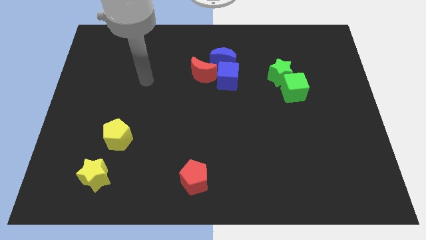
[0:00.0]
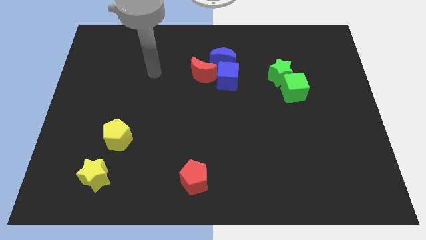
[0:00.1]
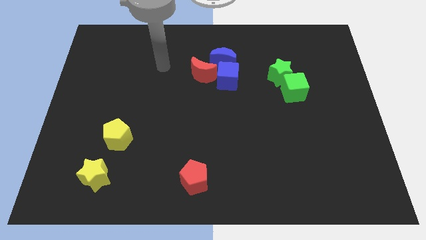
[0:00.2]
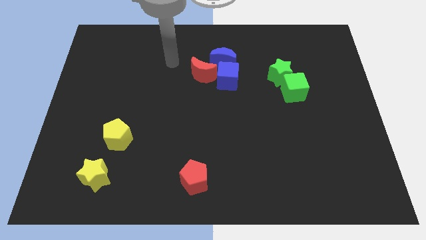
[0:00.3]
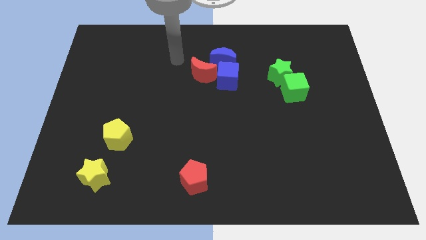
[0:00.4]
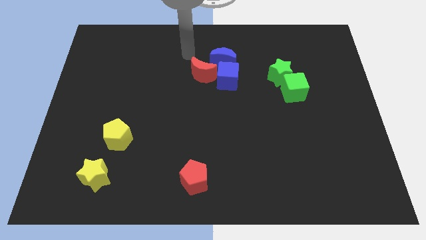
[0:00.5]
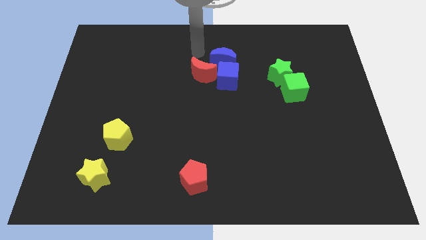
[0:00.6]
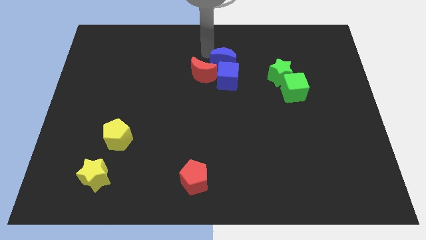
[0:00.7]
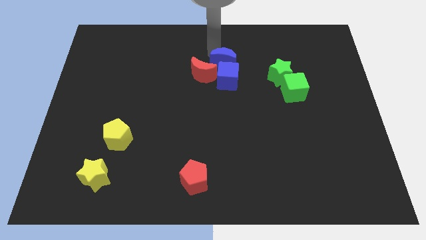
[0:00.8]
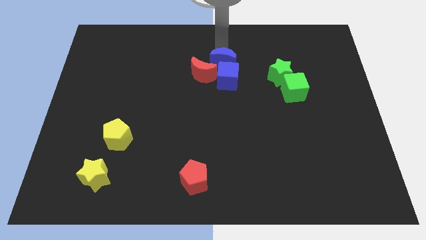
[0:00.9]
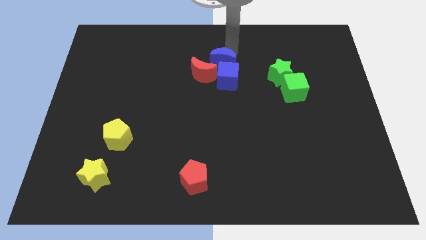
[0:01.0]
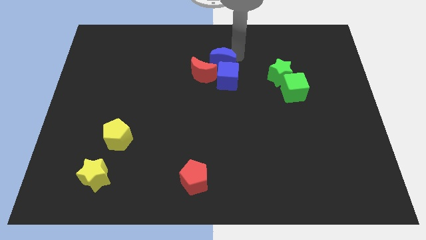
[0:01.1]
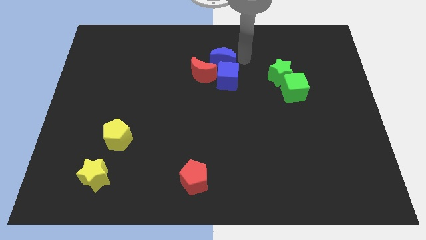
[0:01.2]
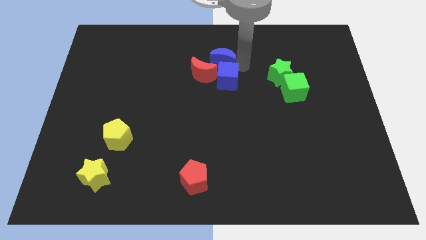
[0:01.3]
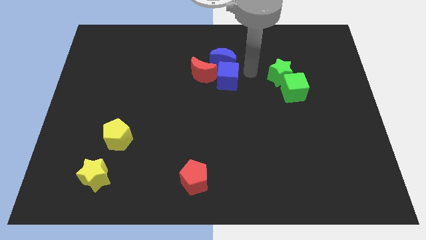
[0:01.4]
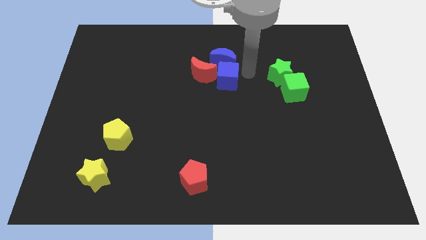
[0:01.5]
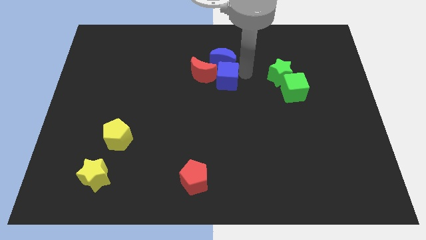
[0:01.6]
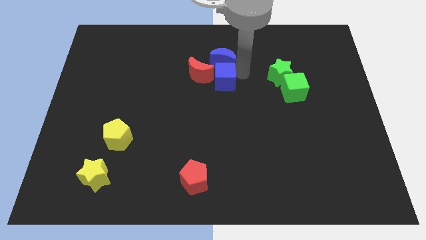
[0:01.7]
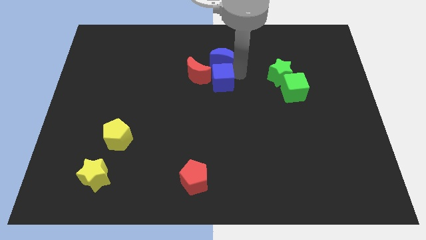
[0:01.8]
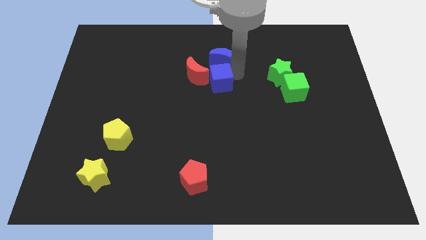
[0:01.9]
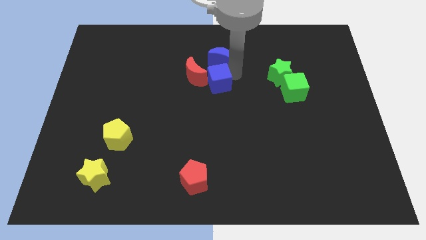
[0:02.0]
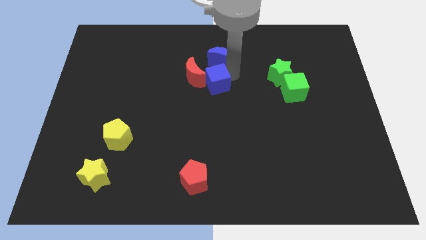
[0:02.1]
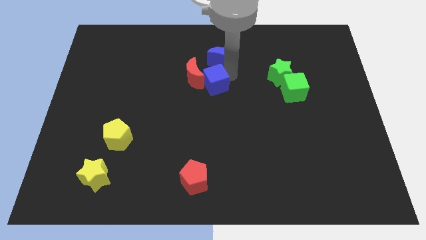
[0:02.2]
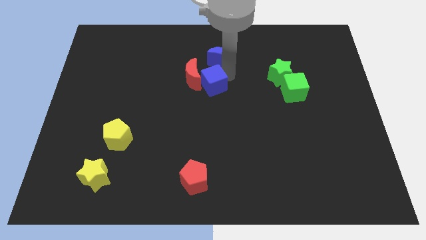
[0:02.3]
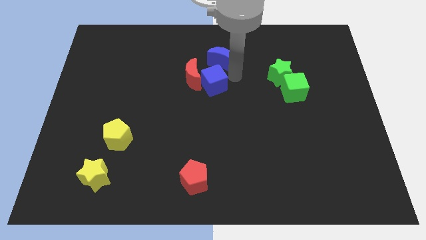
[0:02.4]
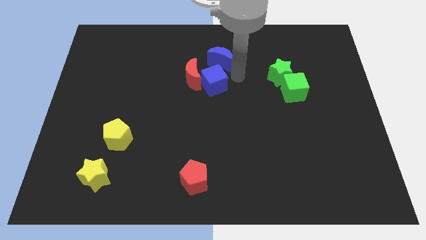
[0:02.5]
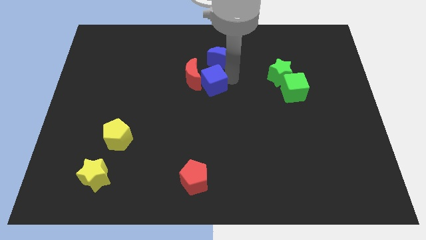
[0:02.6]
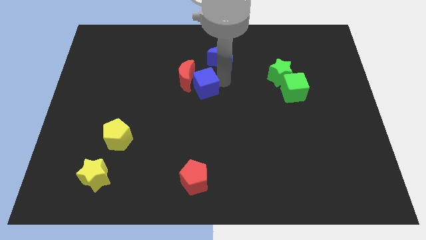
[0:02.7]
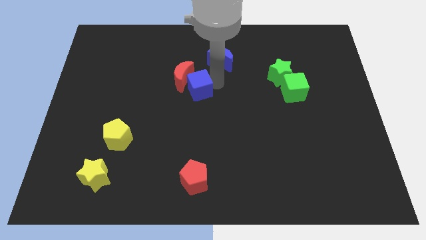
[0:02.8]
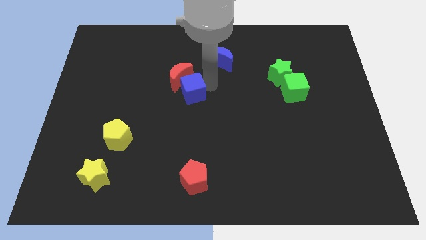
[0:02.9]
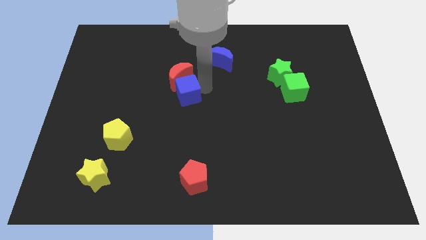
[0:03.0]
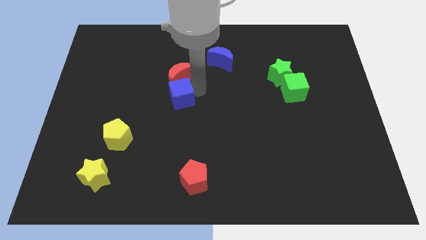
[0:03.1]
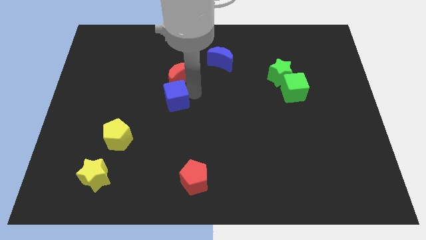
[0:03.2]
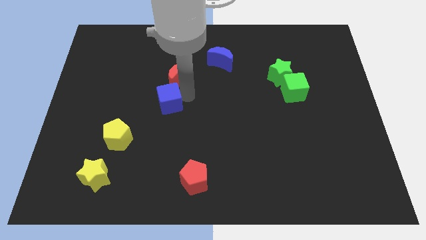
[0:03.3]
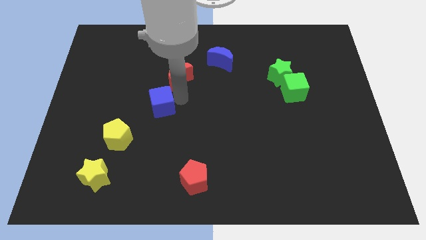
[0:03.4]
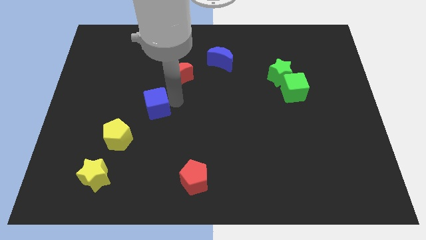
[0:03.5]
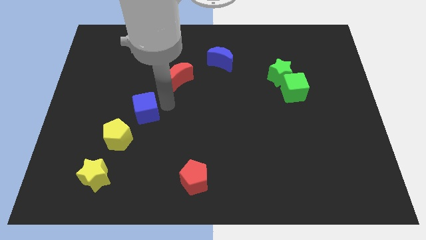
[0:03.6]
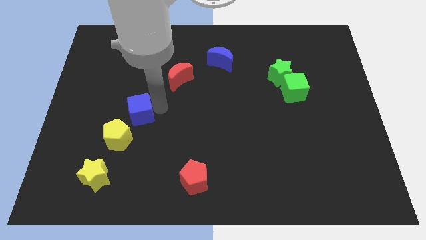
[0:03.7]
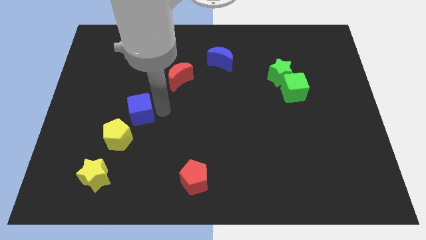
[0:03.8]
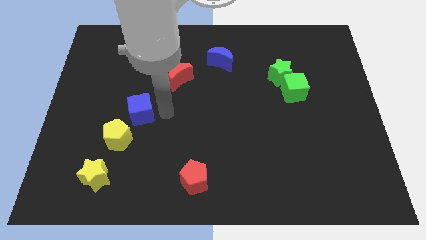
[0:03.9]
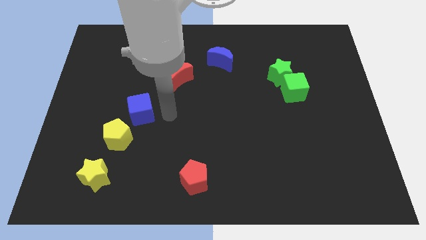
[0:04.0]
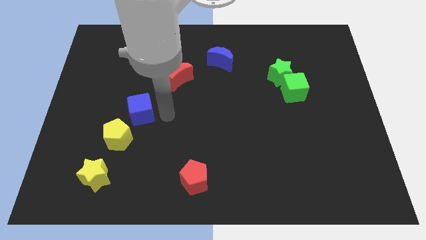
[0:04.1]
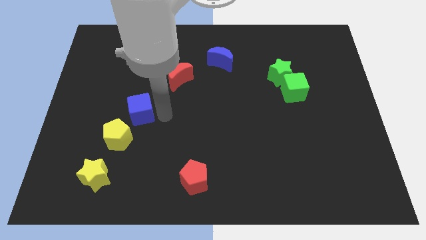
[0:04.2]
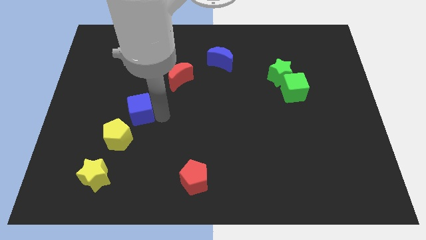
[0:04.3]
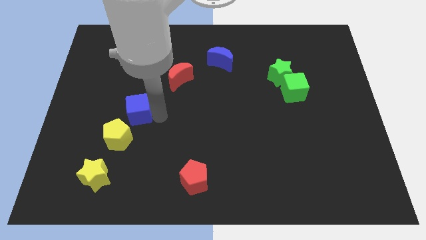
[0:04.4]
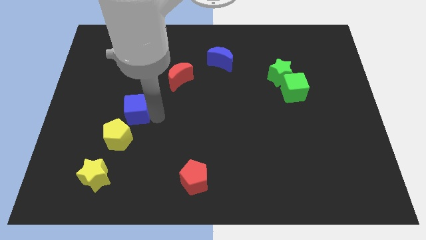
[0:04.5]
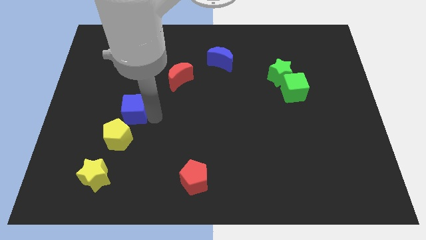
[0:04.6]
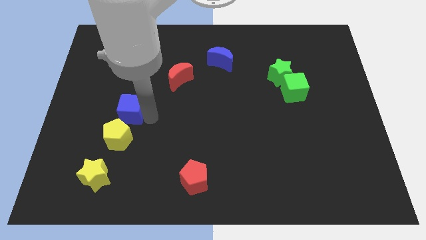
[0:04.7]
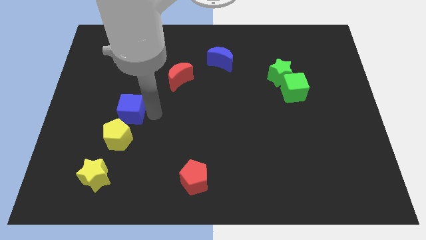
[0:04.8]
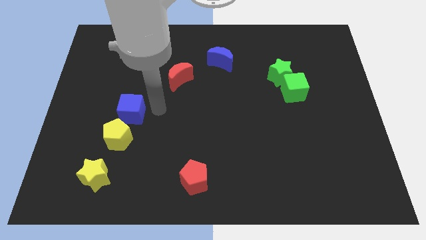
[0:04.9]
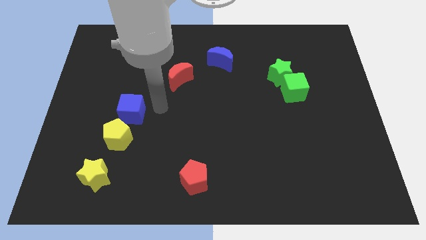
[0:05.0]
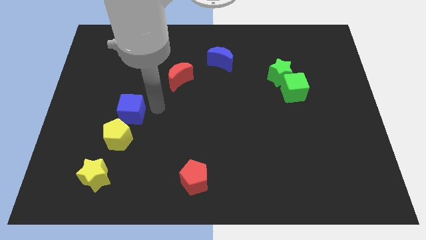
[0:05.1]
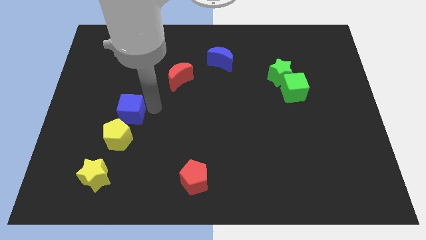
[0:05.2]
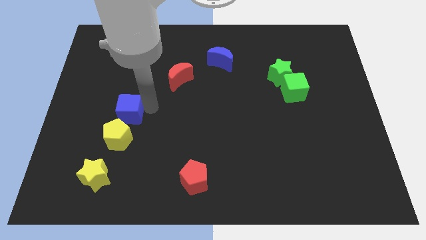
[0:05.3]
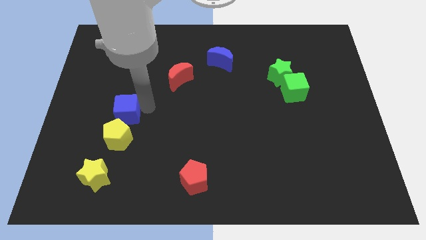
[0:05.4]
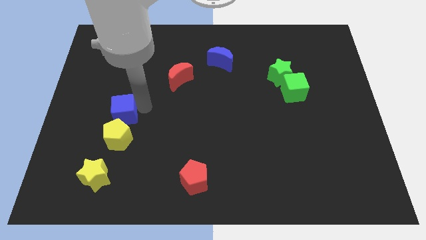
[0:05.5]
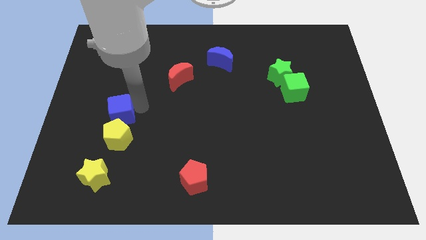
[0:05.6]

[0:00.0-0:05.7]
put the blue cube to the top left side of the yellow pentagon

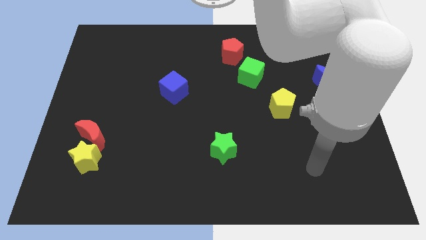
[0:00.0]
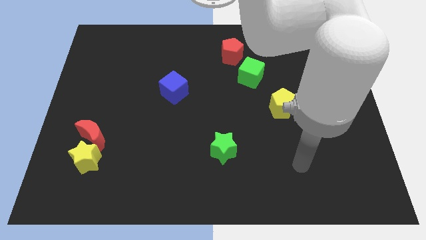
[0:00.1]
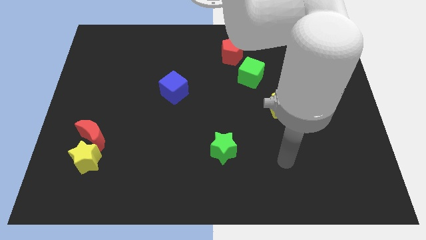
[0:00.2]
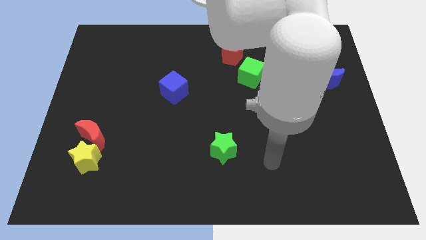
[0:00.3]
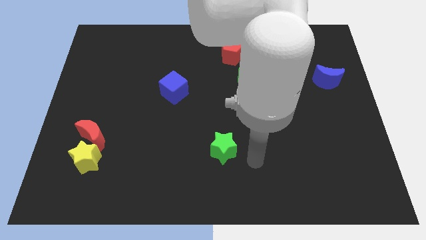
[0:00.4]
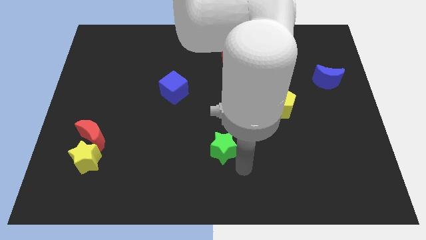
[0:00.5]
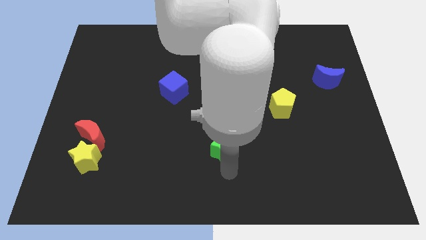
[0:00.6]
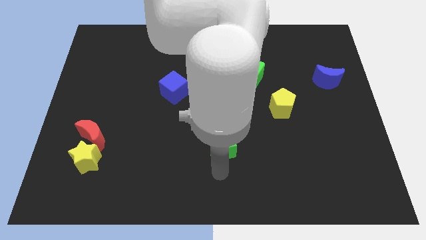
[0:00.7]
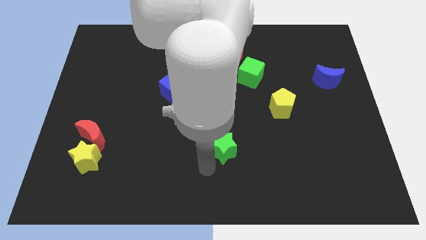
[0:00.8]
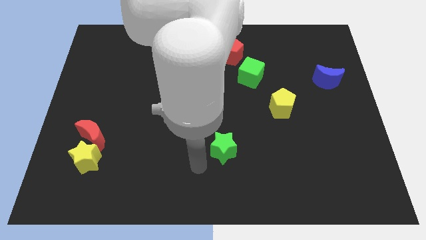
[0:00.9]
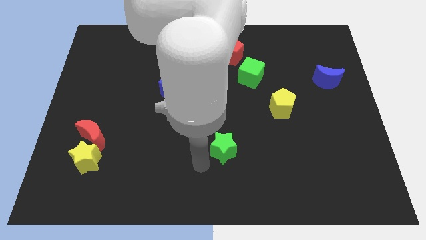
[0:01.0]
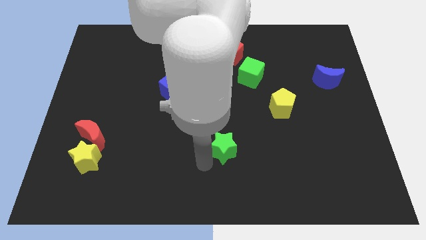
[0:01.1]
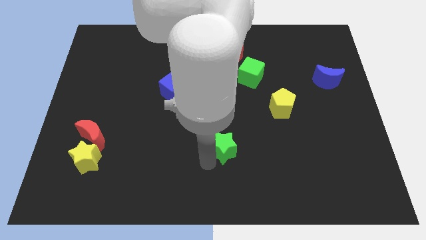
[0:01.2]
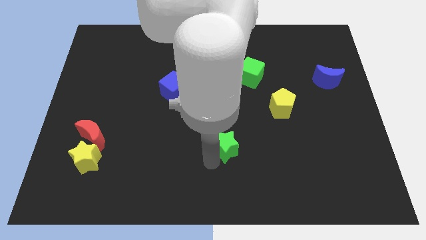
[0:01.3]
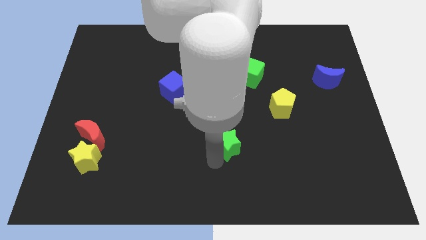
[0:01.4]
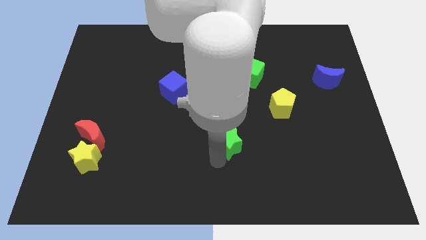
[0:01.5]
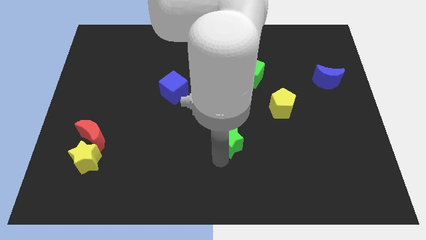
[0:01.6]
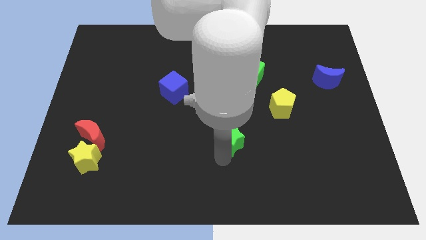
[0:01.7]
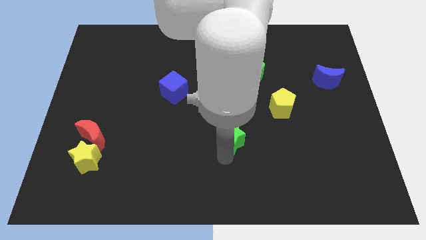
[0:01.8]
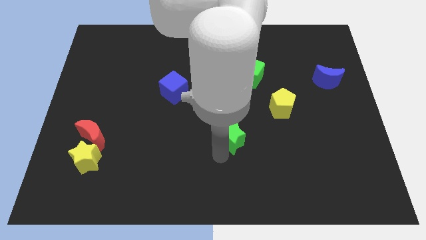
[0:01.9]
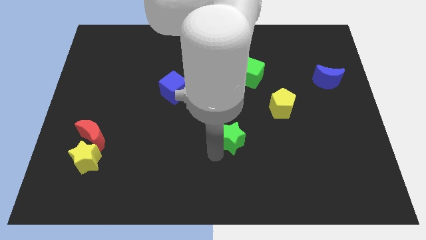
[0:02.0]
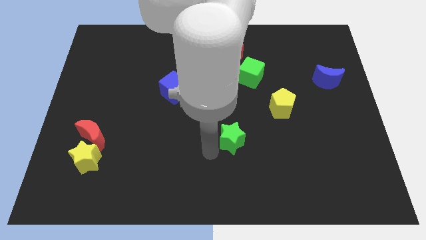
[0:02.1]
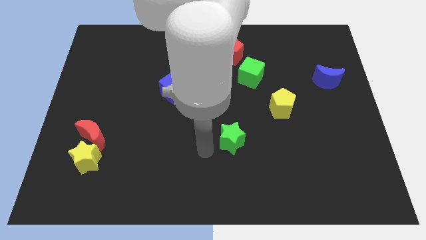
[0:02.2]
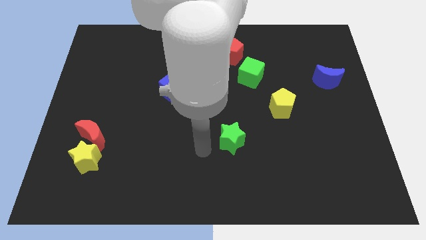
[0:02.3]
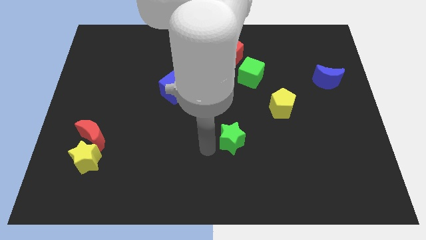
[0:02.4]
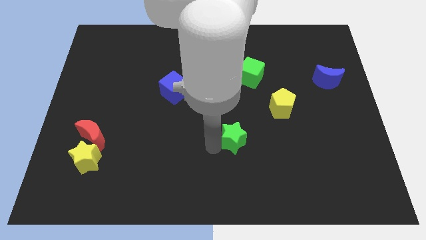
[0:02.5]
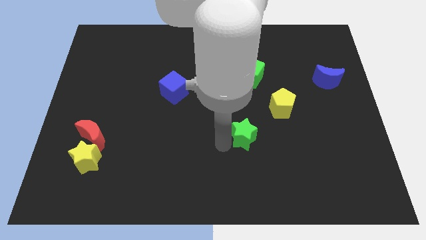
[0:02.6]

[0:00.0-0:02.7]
push the green star to the bottom left of the yellow pentagon
